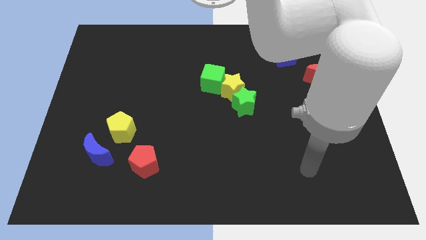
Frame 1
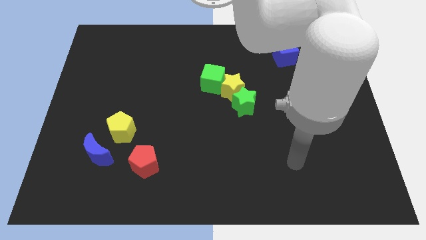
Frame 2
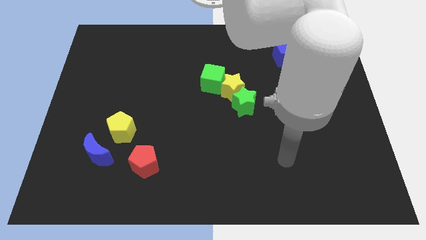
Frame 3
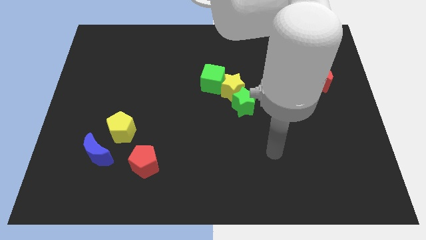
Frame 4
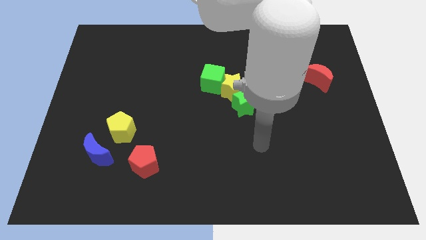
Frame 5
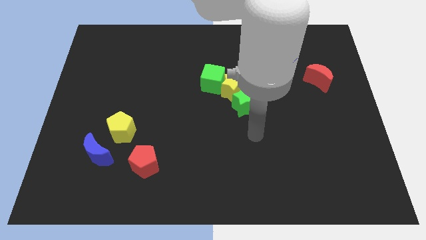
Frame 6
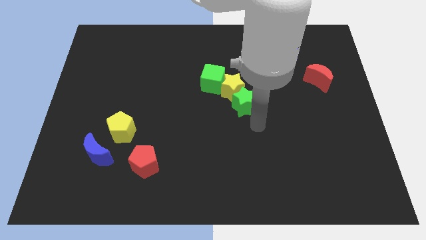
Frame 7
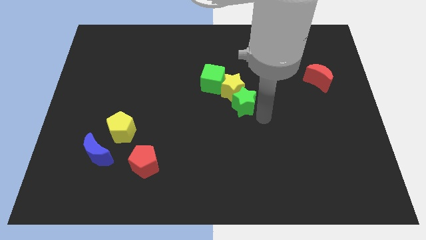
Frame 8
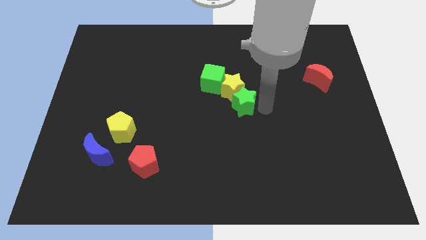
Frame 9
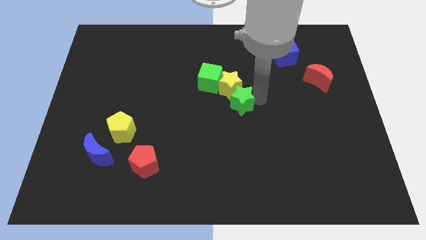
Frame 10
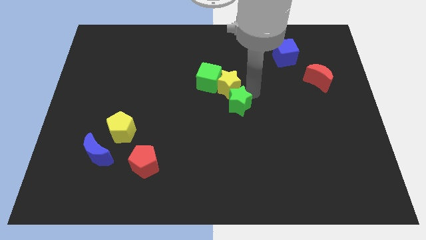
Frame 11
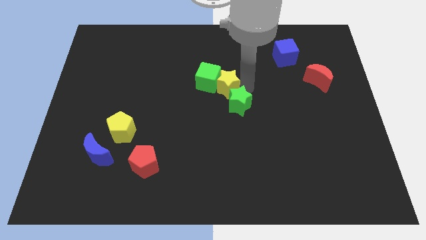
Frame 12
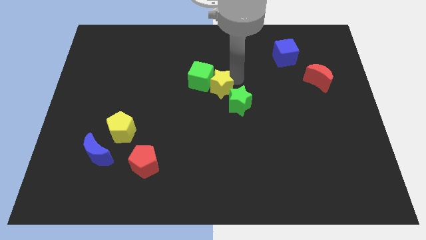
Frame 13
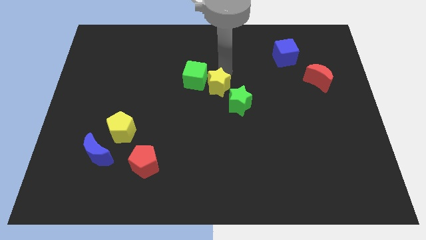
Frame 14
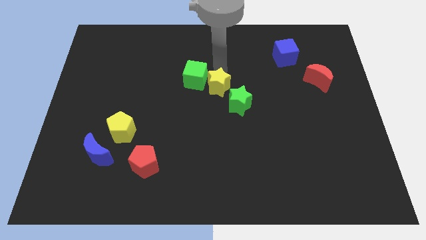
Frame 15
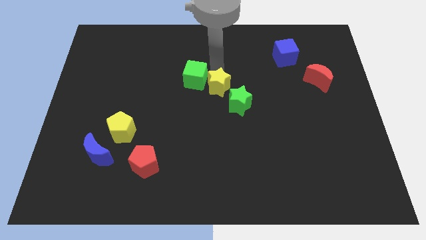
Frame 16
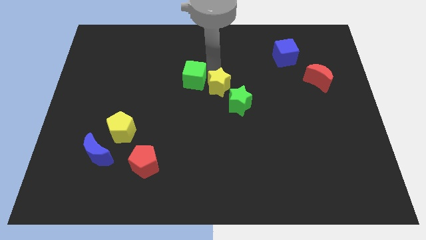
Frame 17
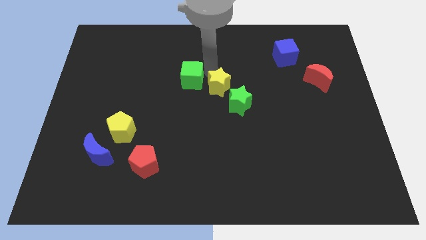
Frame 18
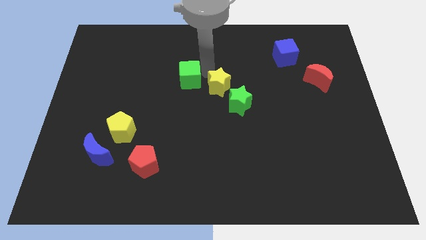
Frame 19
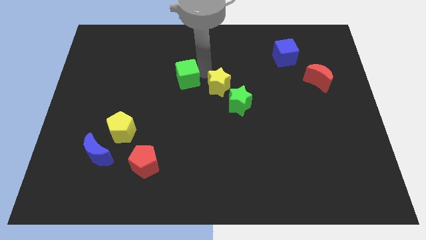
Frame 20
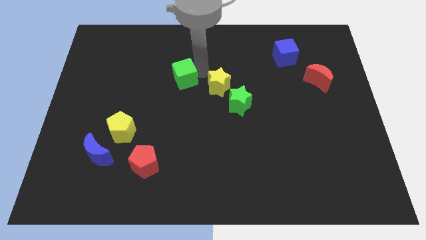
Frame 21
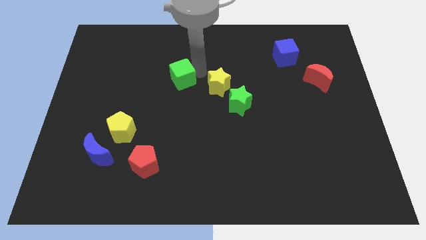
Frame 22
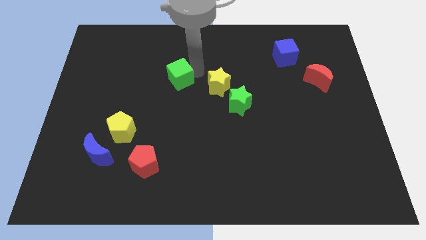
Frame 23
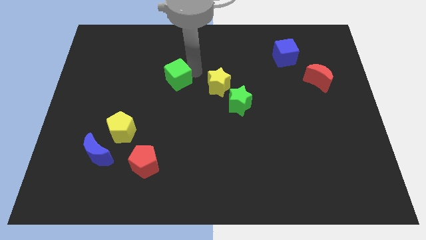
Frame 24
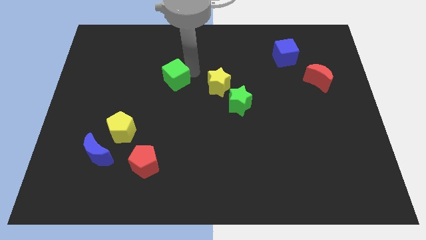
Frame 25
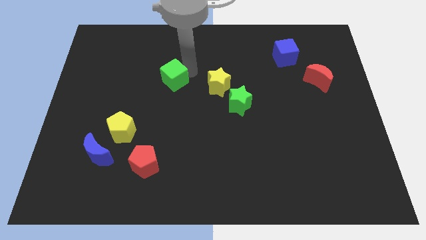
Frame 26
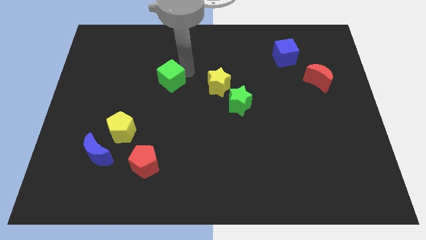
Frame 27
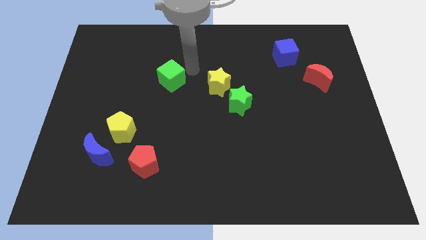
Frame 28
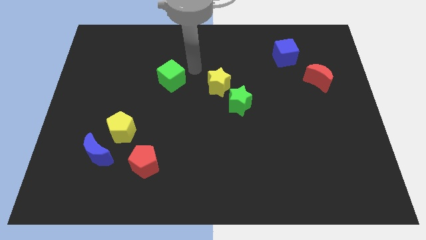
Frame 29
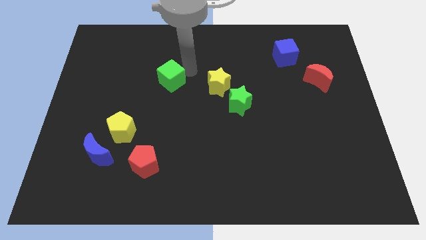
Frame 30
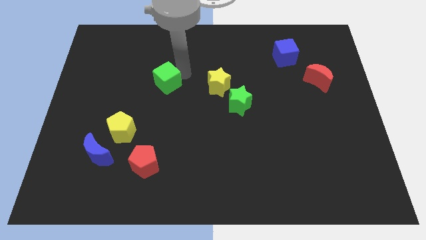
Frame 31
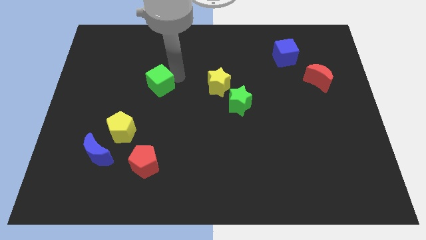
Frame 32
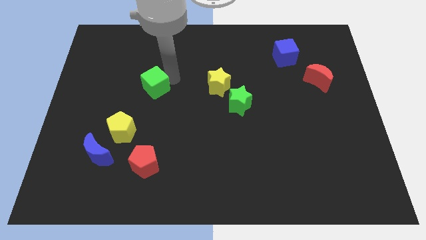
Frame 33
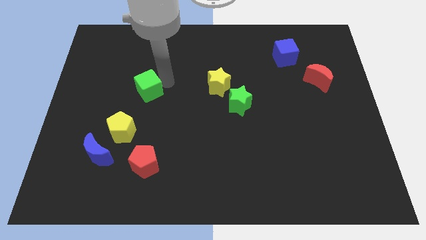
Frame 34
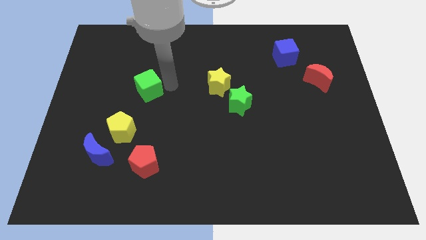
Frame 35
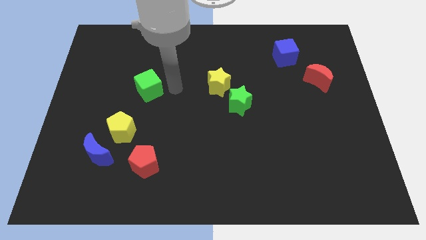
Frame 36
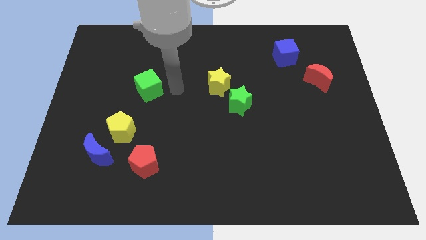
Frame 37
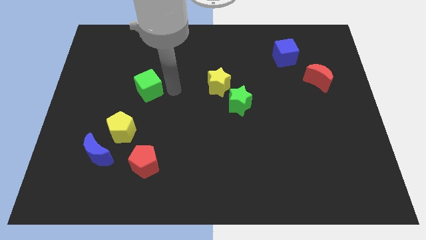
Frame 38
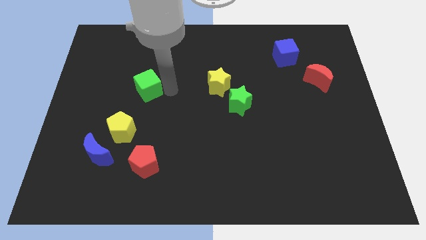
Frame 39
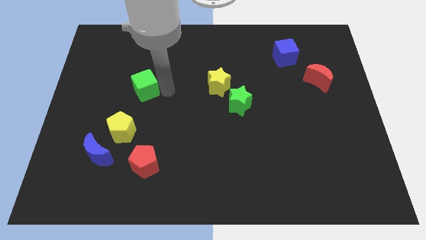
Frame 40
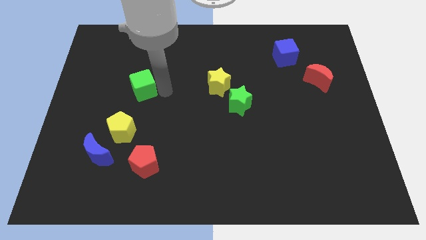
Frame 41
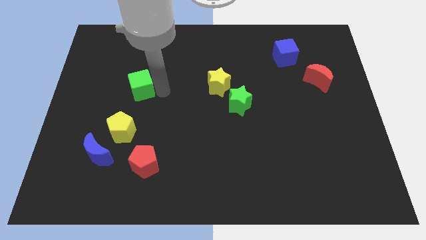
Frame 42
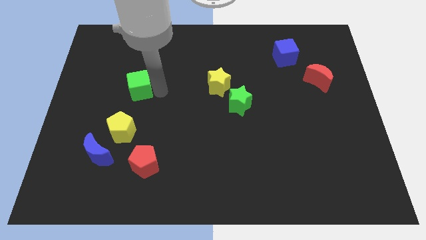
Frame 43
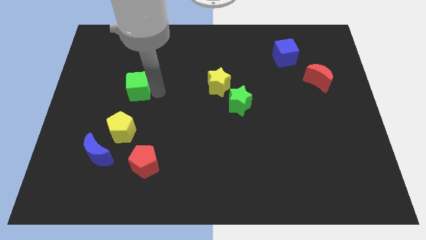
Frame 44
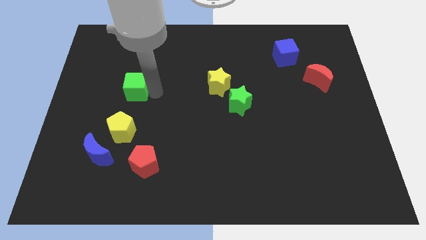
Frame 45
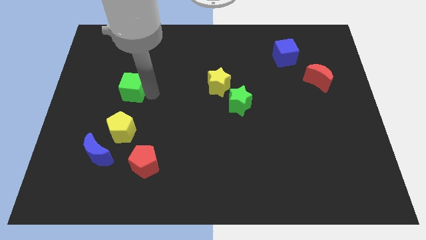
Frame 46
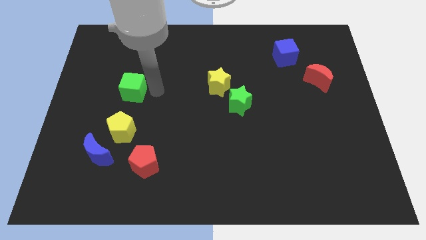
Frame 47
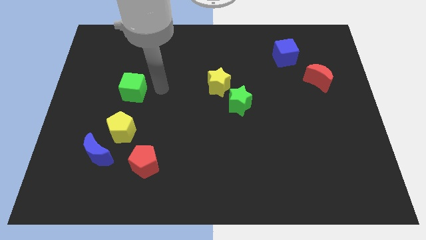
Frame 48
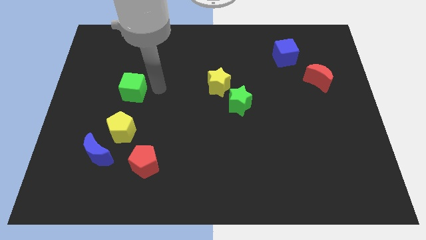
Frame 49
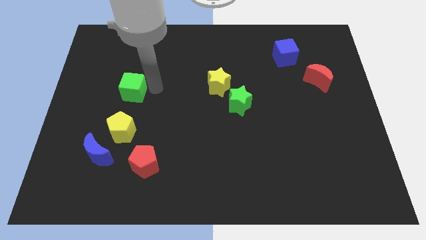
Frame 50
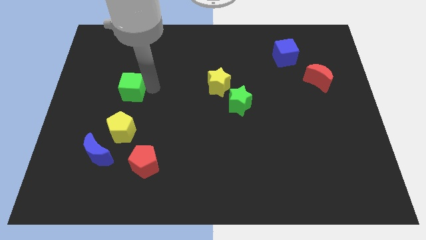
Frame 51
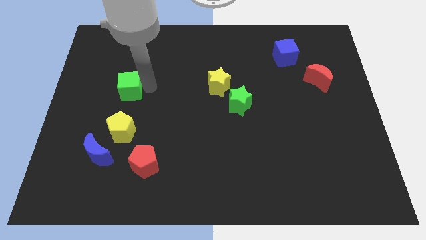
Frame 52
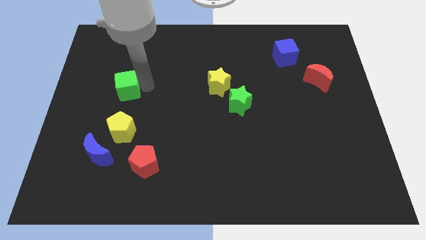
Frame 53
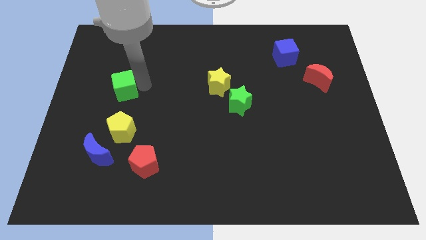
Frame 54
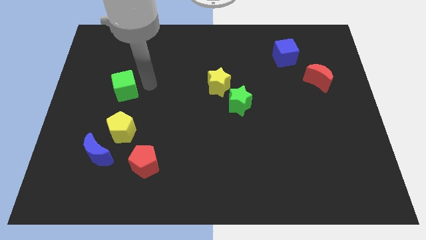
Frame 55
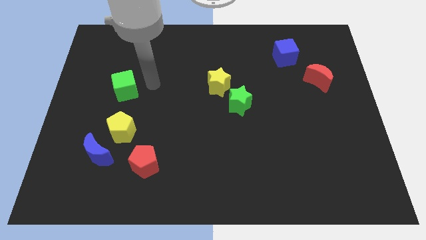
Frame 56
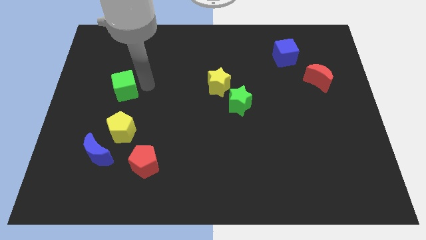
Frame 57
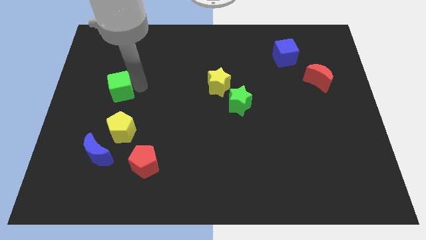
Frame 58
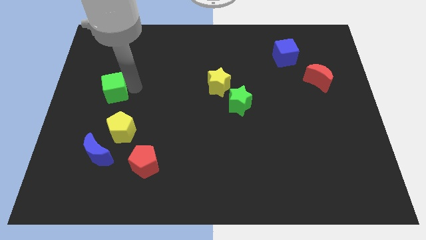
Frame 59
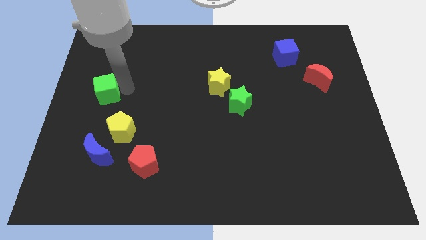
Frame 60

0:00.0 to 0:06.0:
move the green cube to the left side of the board

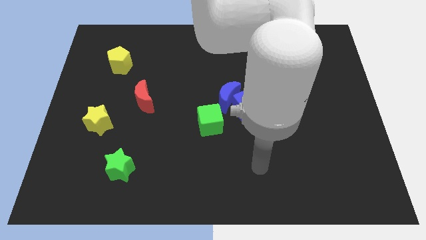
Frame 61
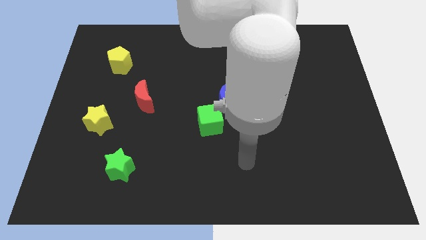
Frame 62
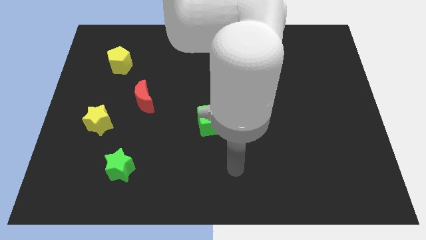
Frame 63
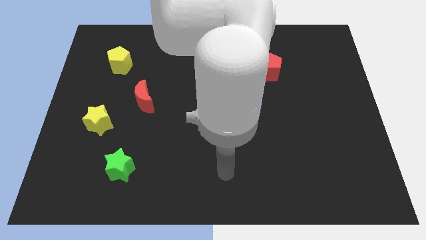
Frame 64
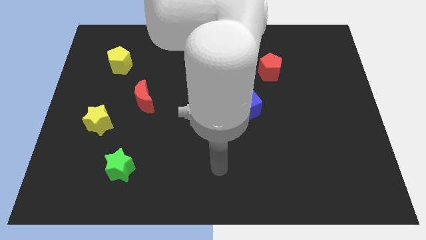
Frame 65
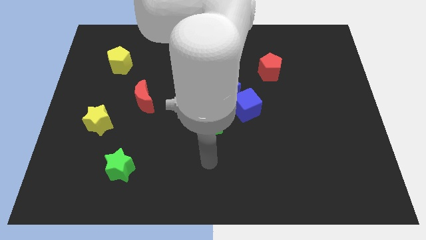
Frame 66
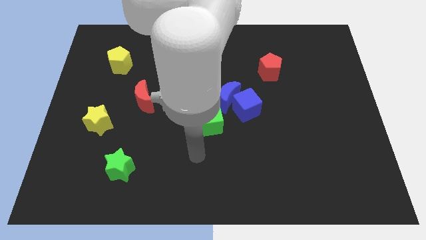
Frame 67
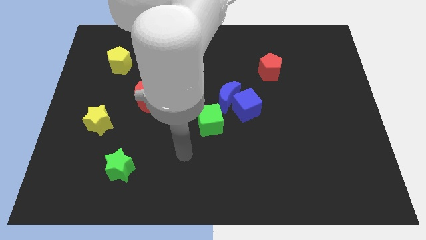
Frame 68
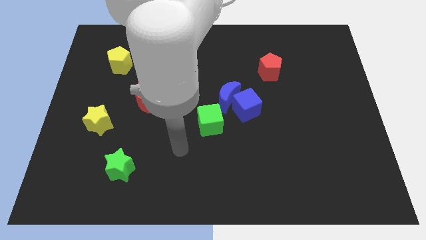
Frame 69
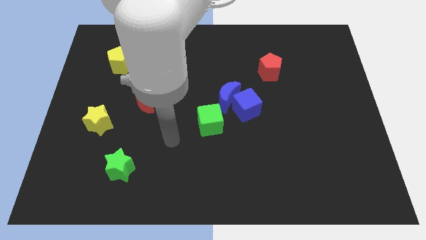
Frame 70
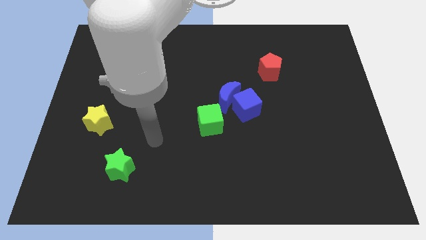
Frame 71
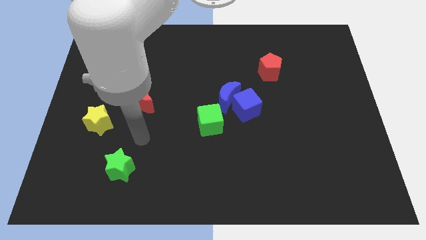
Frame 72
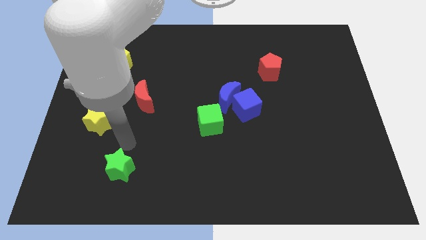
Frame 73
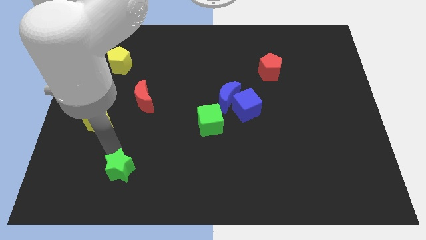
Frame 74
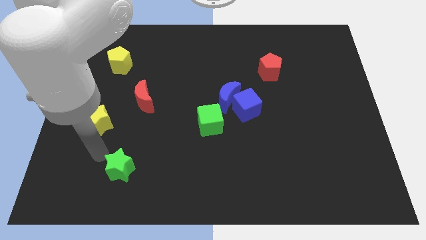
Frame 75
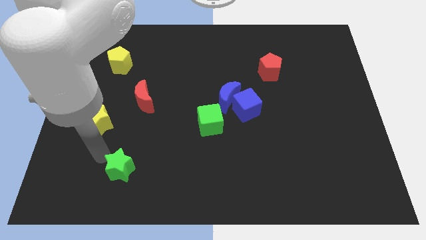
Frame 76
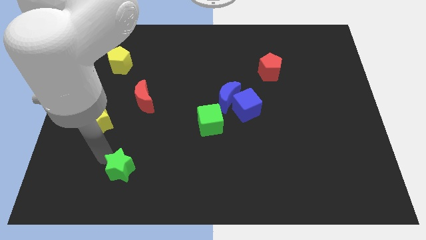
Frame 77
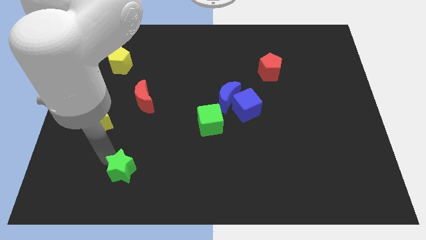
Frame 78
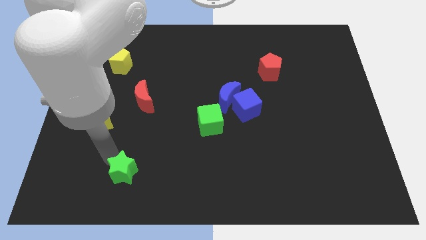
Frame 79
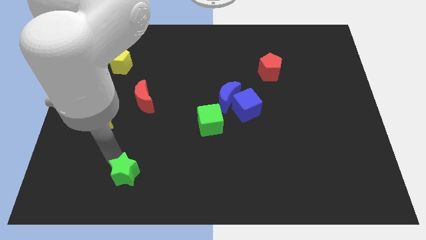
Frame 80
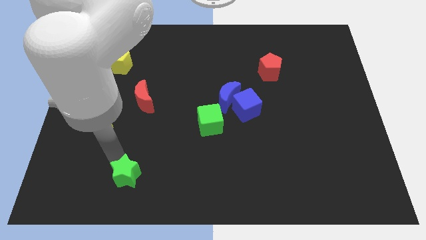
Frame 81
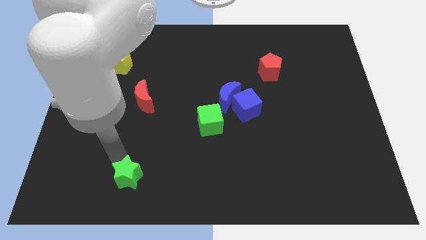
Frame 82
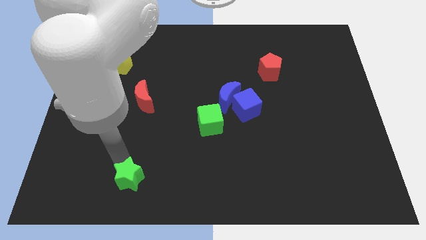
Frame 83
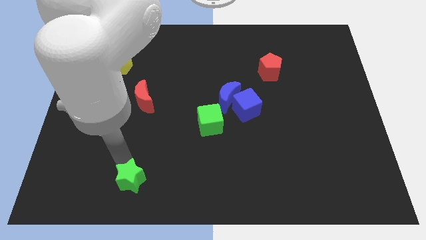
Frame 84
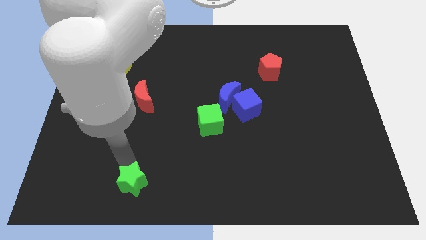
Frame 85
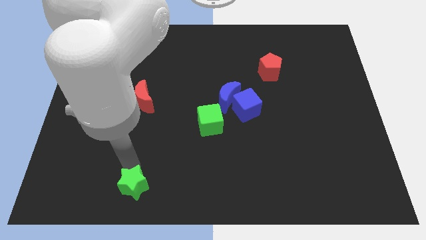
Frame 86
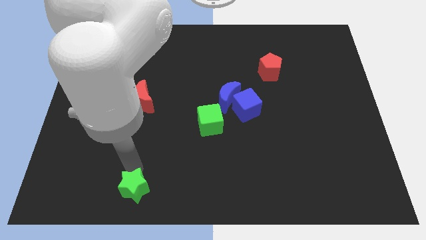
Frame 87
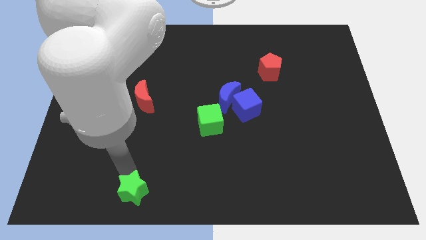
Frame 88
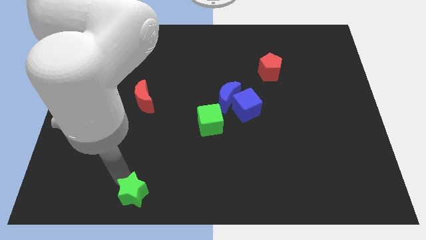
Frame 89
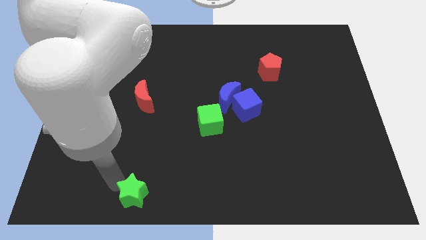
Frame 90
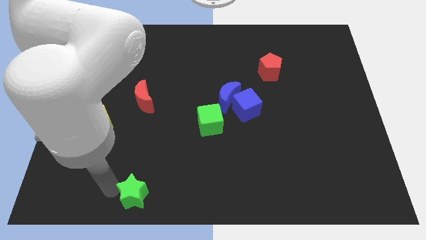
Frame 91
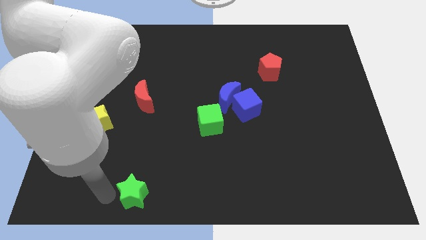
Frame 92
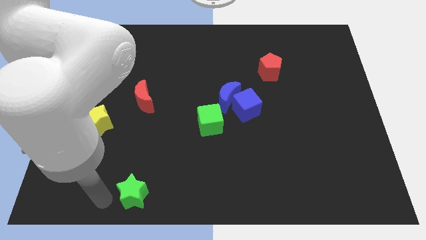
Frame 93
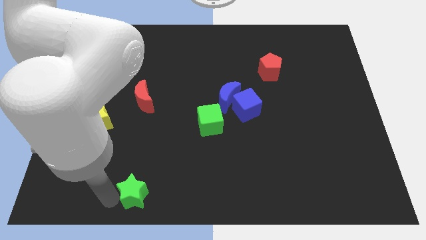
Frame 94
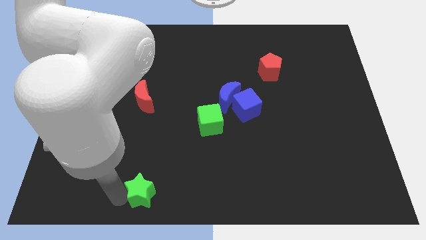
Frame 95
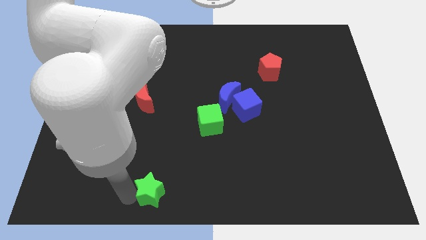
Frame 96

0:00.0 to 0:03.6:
push the green star to the bottom
